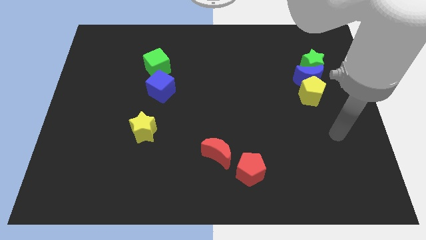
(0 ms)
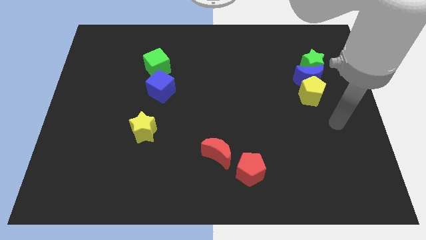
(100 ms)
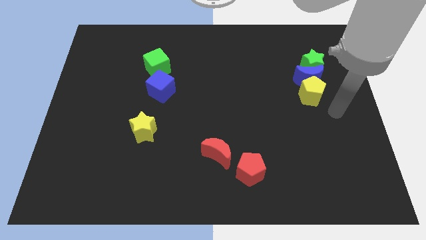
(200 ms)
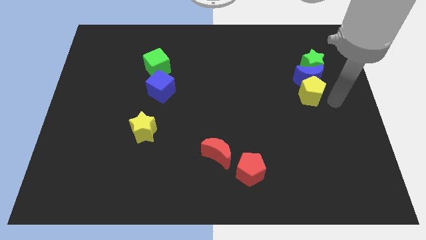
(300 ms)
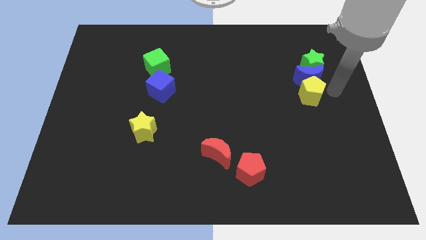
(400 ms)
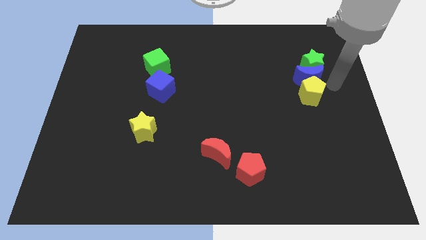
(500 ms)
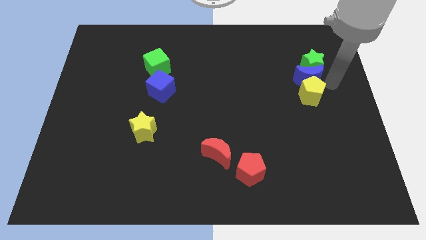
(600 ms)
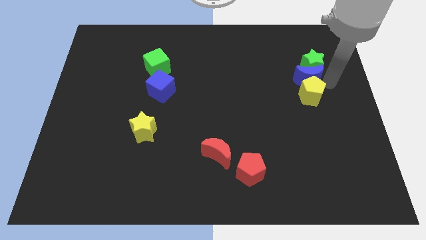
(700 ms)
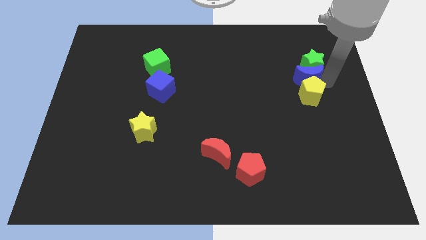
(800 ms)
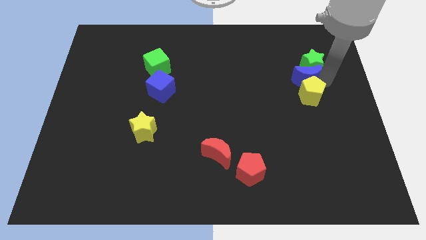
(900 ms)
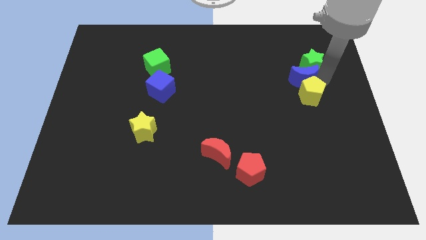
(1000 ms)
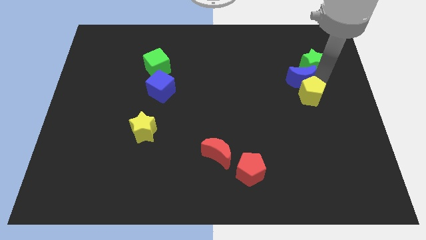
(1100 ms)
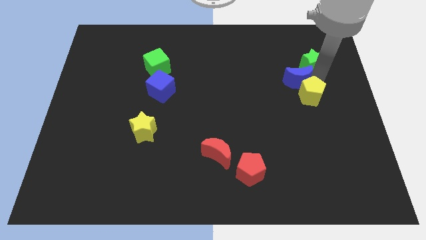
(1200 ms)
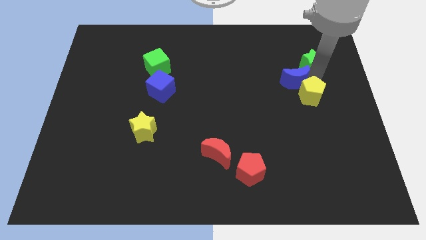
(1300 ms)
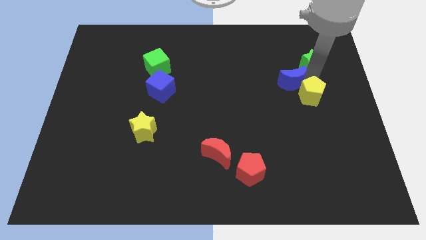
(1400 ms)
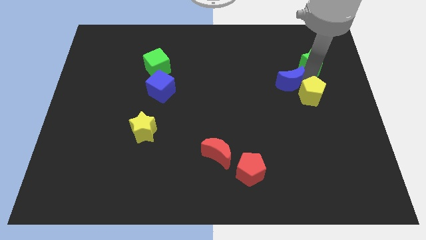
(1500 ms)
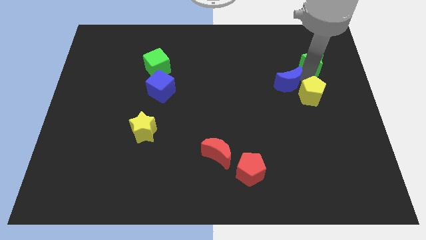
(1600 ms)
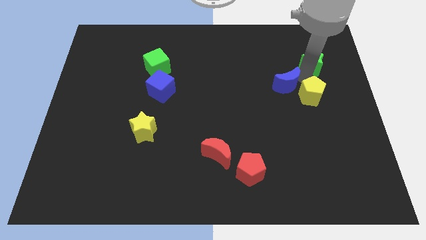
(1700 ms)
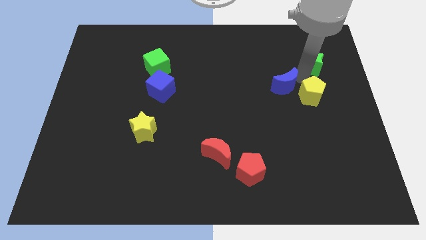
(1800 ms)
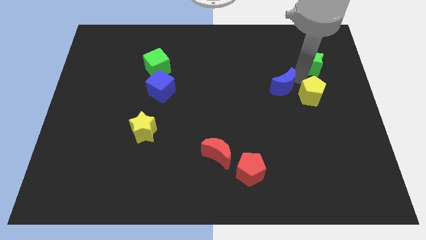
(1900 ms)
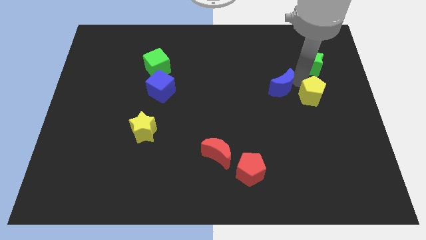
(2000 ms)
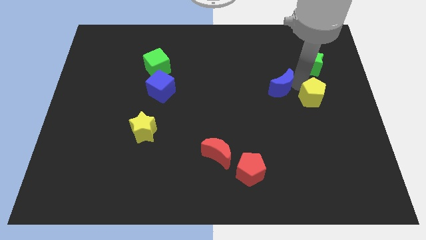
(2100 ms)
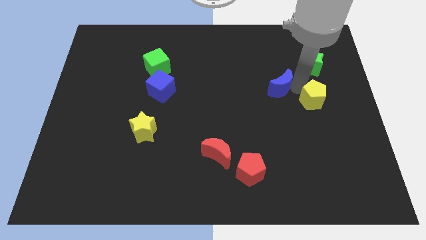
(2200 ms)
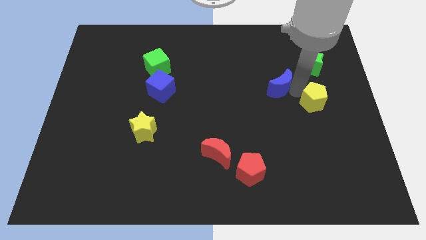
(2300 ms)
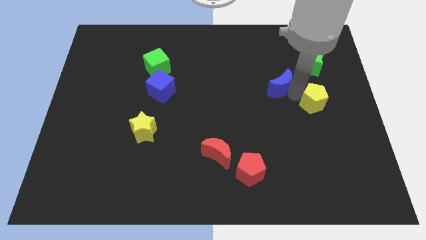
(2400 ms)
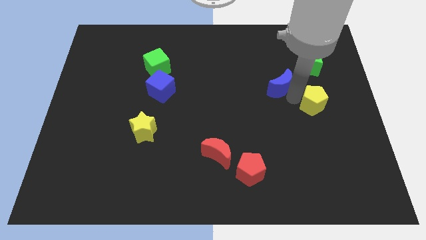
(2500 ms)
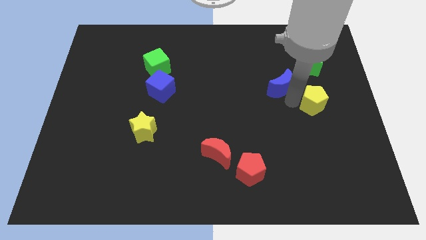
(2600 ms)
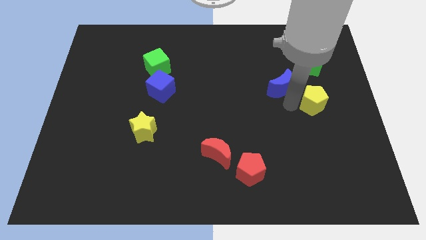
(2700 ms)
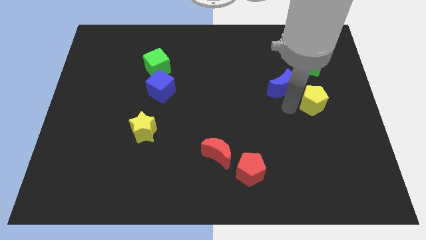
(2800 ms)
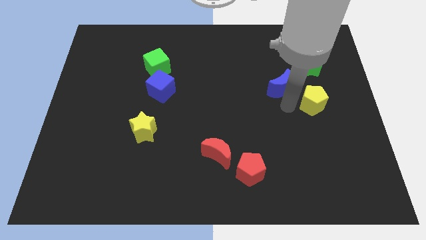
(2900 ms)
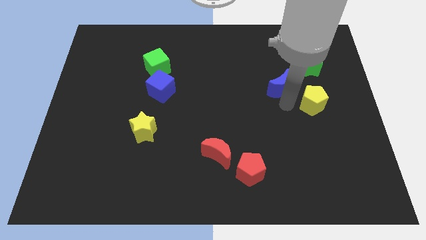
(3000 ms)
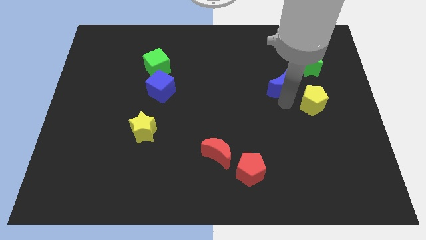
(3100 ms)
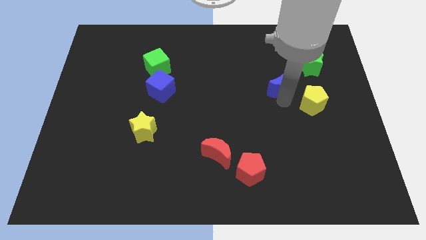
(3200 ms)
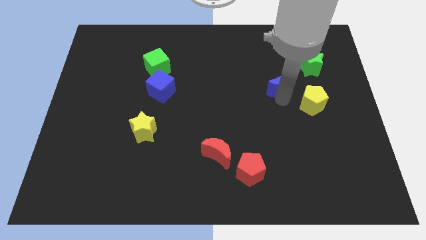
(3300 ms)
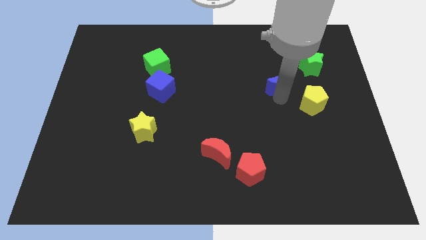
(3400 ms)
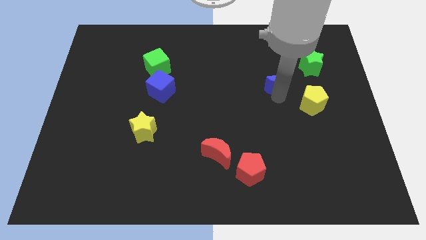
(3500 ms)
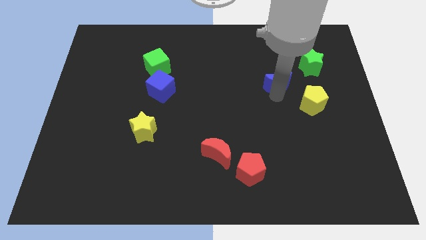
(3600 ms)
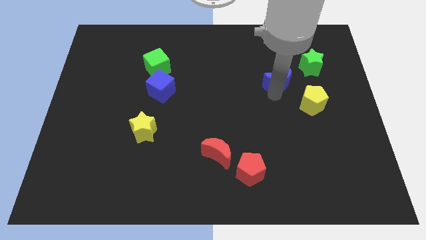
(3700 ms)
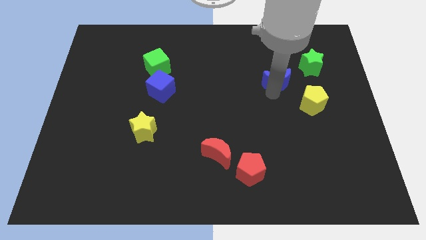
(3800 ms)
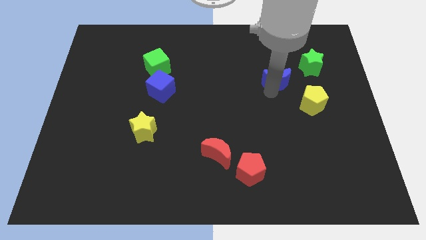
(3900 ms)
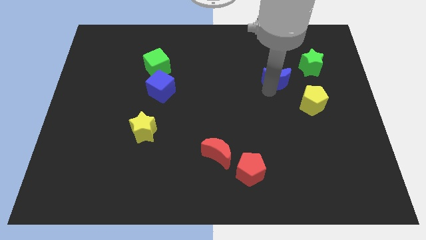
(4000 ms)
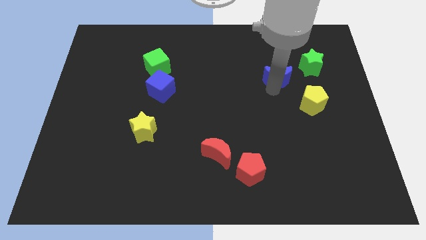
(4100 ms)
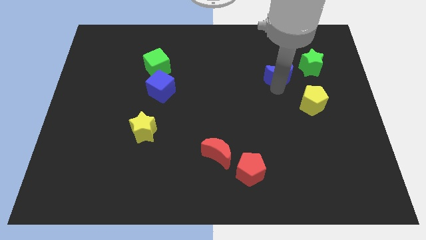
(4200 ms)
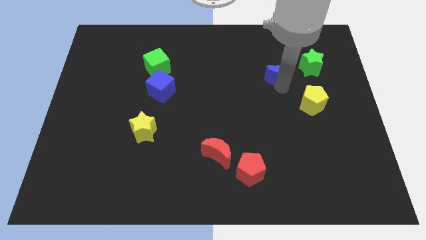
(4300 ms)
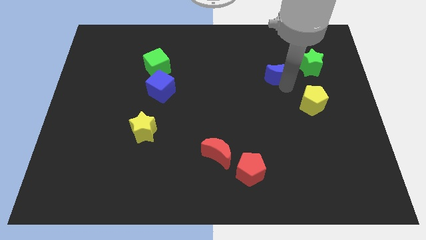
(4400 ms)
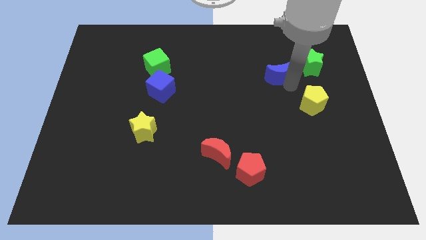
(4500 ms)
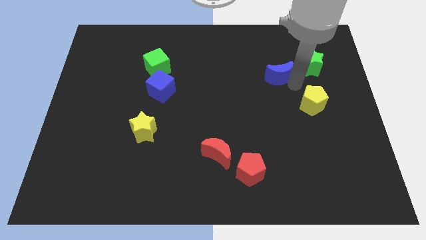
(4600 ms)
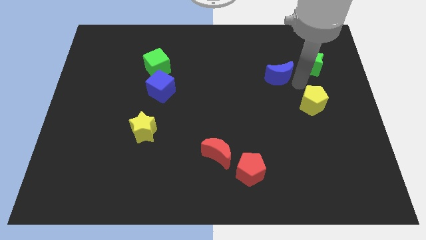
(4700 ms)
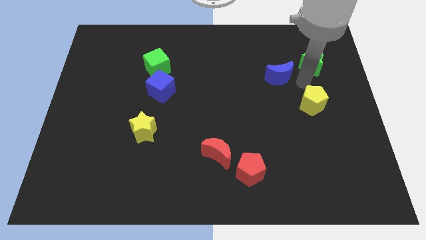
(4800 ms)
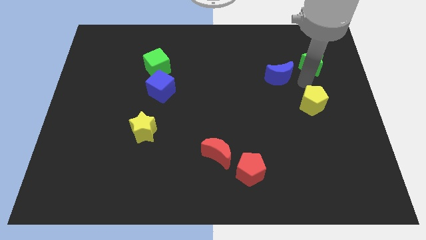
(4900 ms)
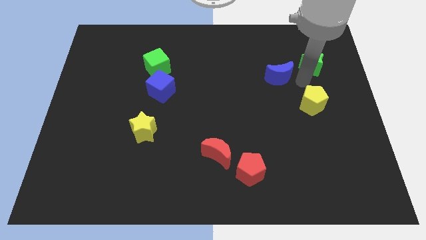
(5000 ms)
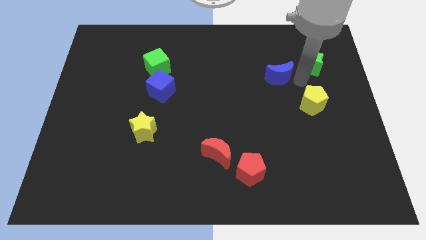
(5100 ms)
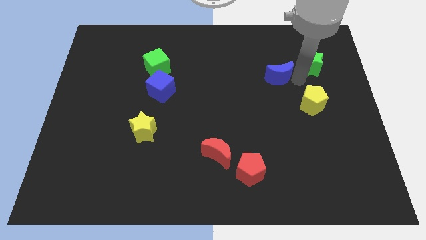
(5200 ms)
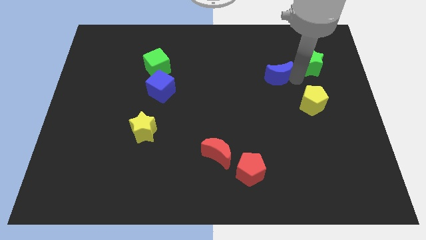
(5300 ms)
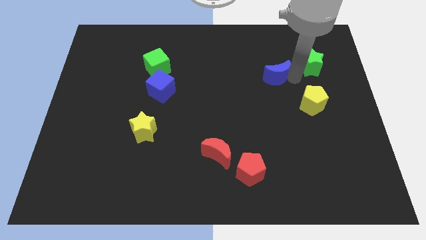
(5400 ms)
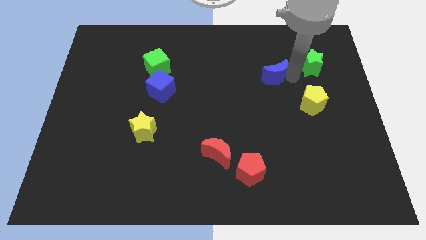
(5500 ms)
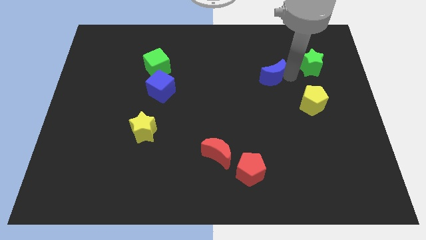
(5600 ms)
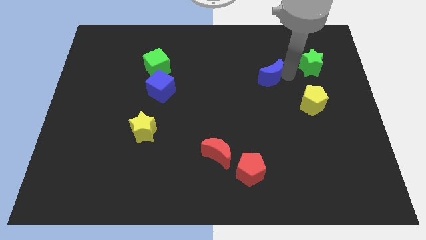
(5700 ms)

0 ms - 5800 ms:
pull the blue moon apart from the yellow pentagon and green star

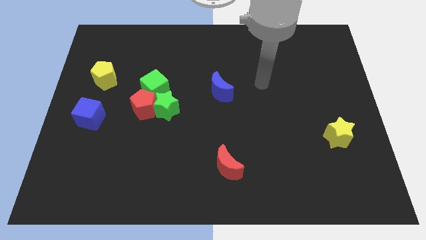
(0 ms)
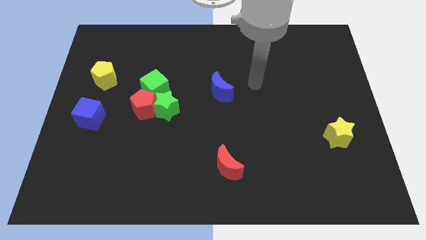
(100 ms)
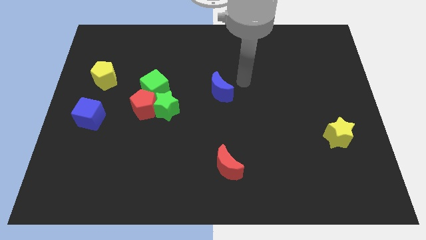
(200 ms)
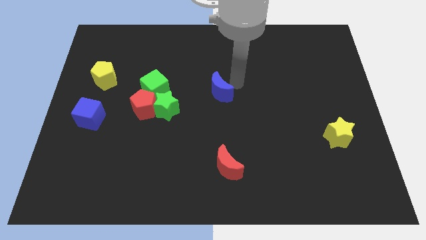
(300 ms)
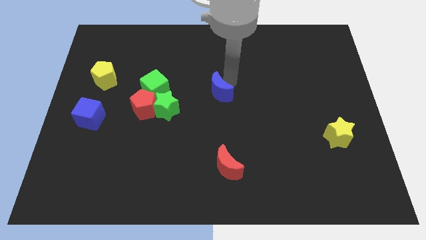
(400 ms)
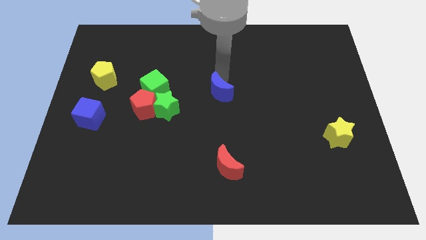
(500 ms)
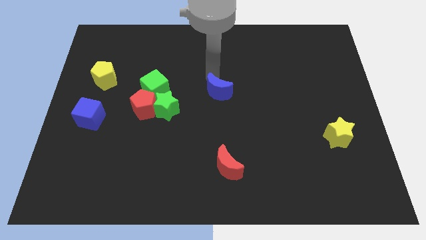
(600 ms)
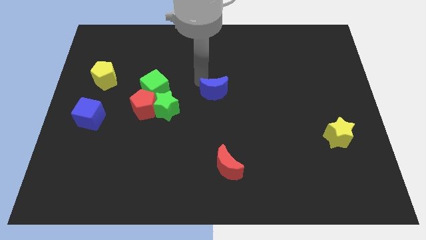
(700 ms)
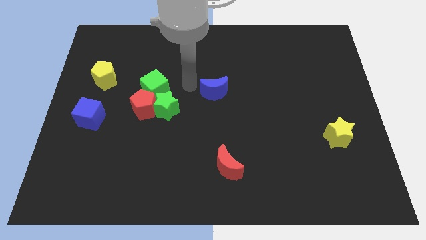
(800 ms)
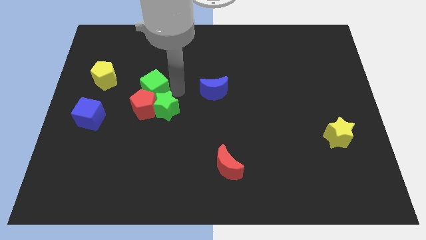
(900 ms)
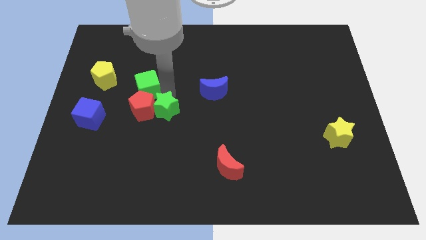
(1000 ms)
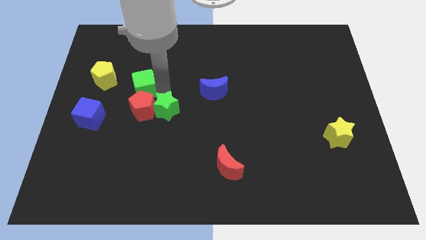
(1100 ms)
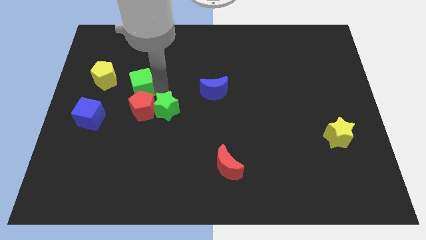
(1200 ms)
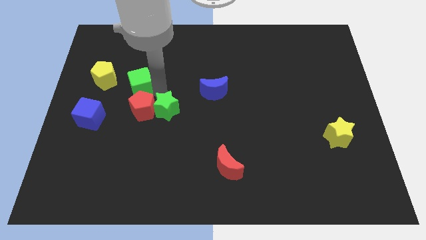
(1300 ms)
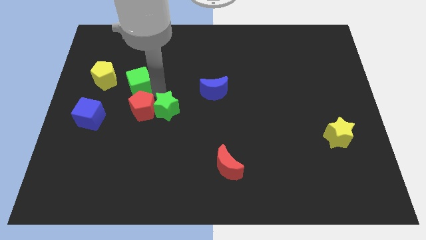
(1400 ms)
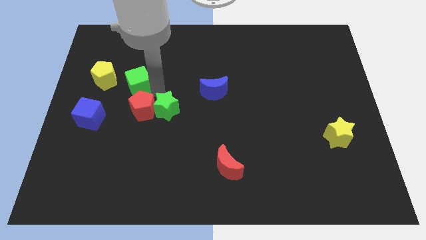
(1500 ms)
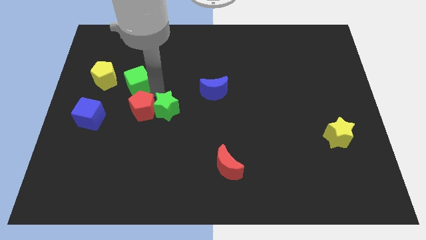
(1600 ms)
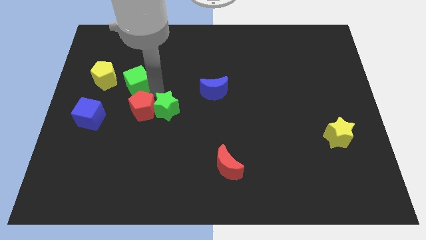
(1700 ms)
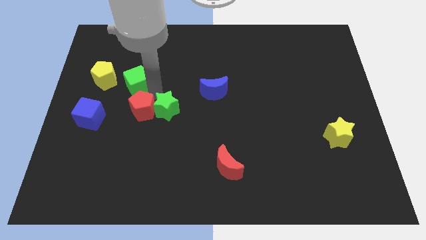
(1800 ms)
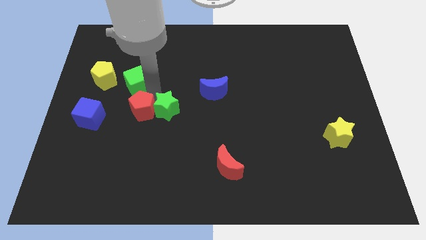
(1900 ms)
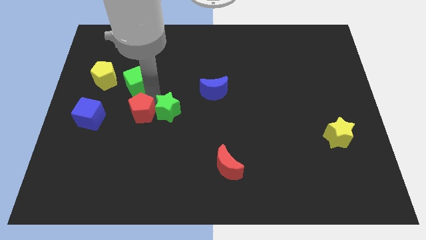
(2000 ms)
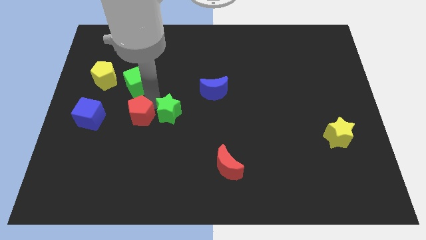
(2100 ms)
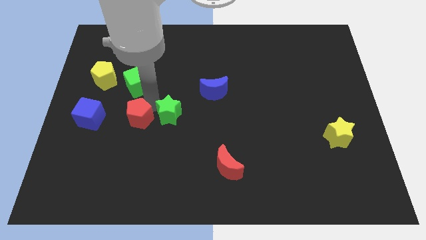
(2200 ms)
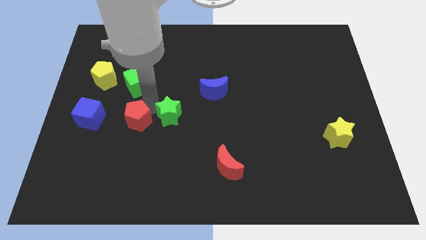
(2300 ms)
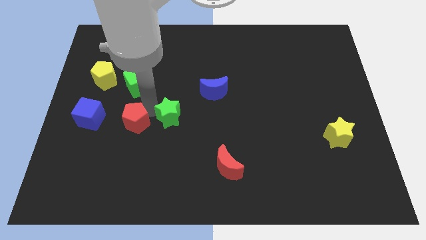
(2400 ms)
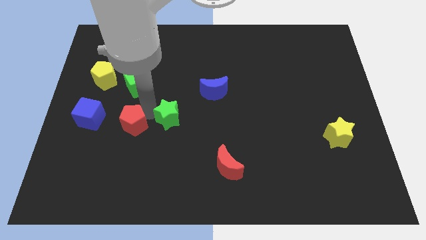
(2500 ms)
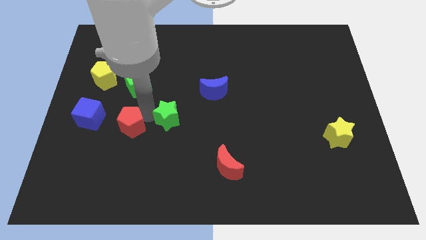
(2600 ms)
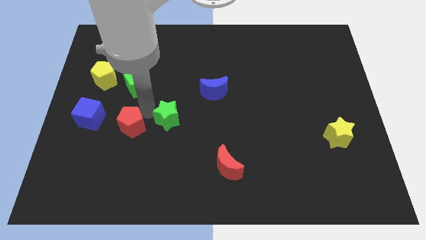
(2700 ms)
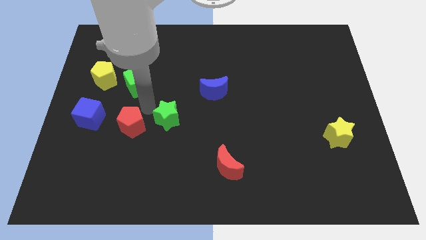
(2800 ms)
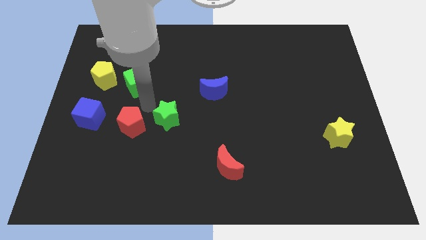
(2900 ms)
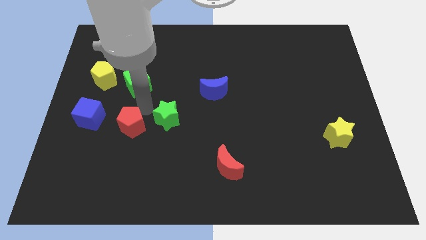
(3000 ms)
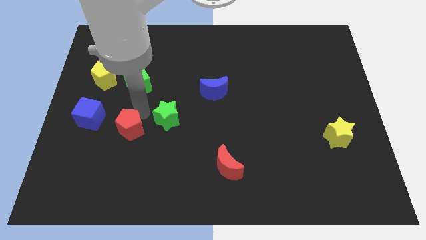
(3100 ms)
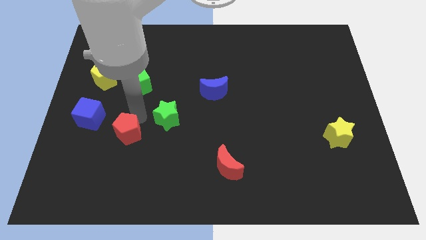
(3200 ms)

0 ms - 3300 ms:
separate the red pentagon from the green star and green cube

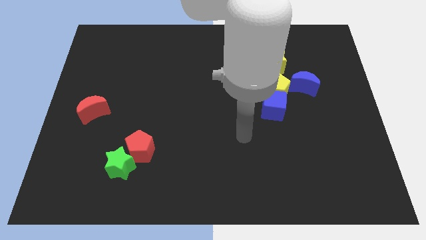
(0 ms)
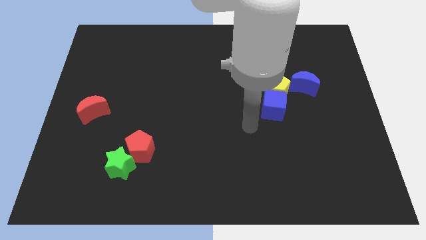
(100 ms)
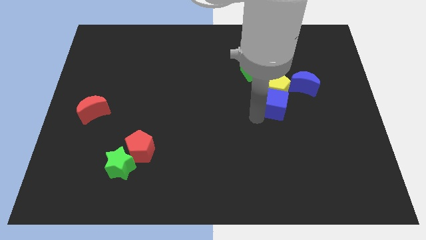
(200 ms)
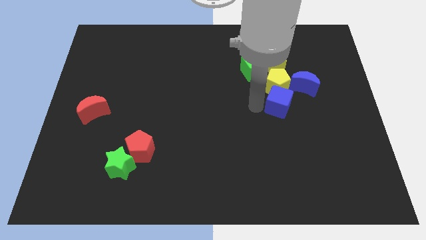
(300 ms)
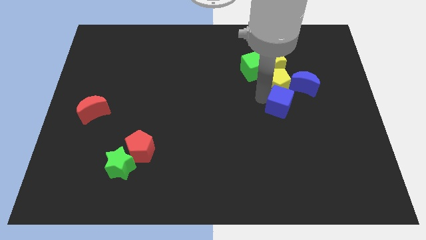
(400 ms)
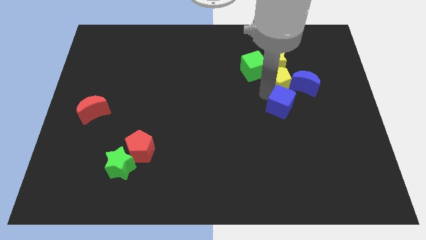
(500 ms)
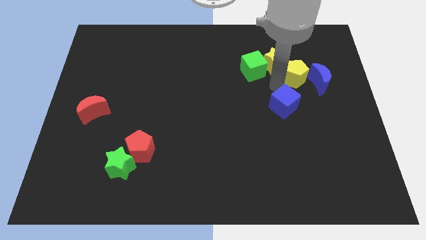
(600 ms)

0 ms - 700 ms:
separate the blue cube from the yellow pentagon
